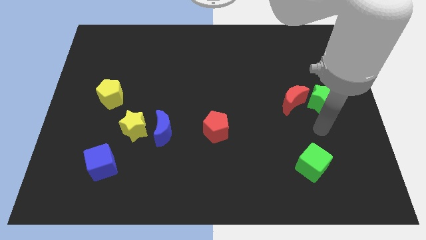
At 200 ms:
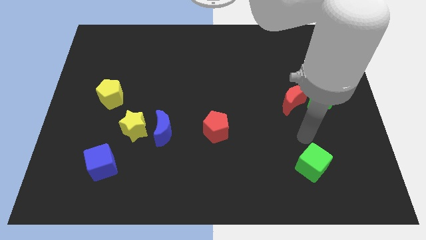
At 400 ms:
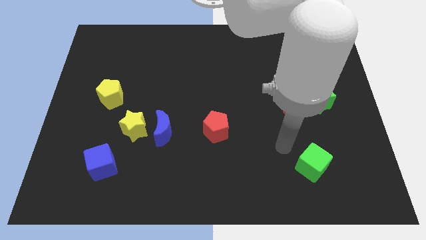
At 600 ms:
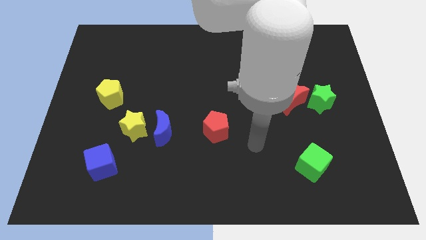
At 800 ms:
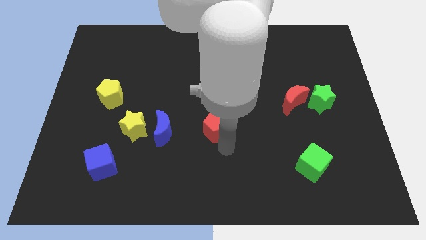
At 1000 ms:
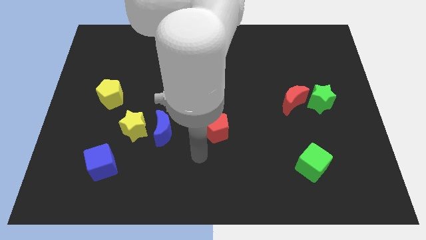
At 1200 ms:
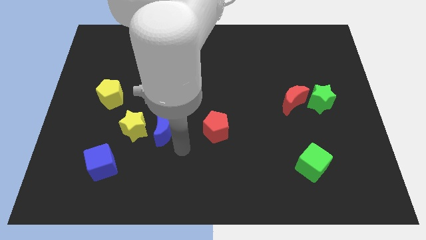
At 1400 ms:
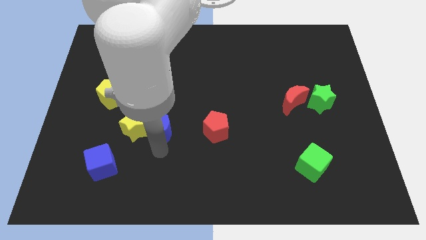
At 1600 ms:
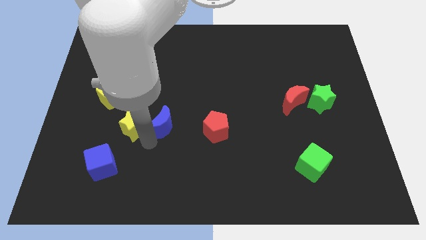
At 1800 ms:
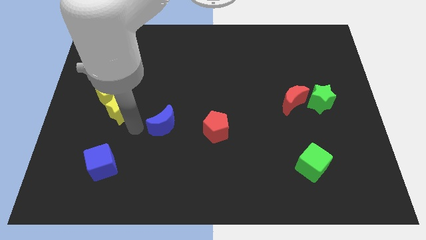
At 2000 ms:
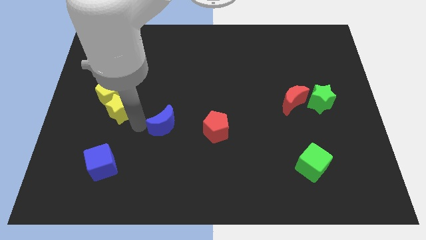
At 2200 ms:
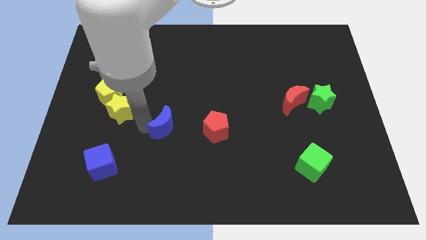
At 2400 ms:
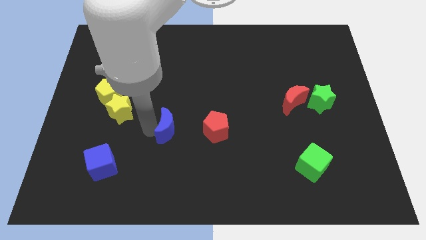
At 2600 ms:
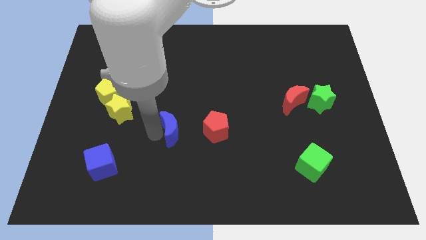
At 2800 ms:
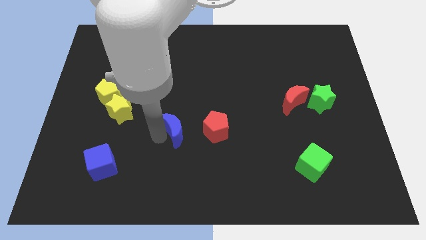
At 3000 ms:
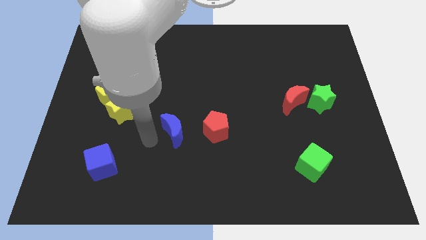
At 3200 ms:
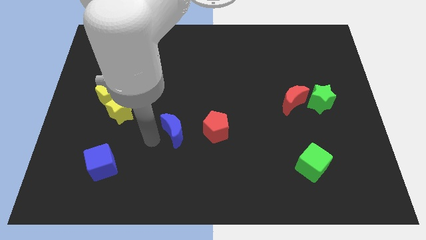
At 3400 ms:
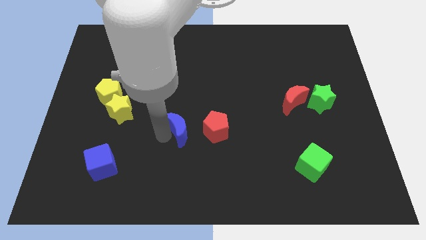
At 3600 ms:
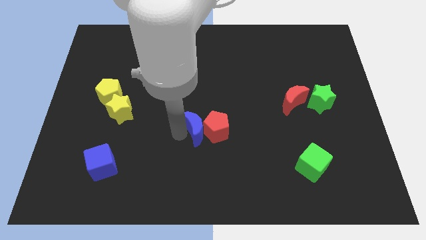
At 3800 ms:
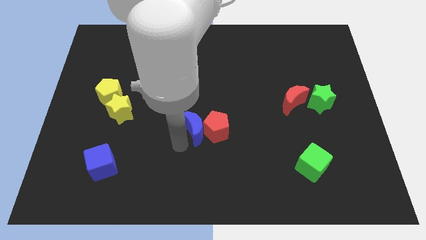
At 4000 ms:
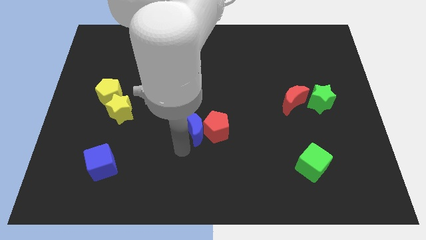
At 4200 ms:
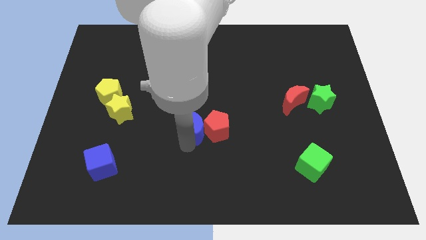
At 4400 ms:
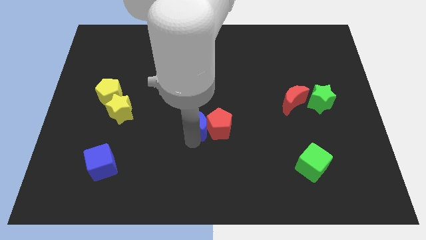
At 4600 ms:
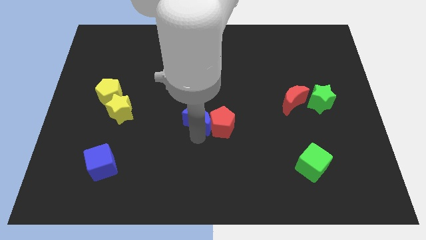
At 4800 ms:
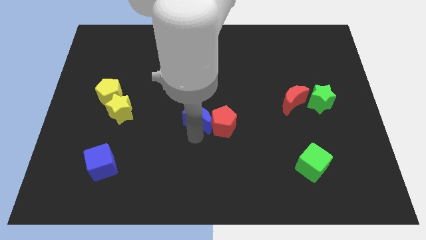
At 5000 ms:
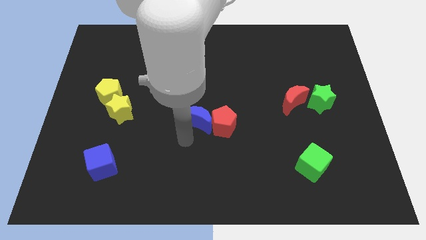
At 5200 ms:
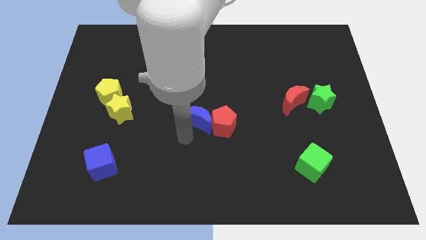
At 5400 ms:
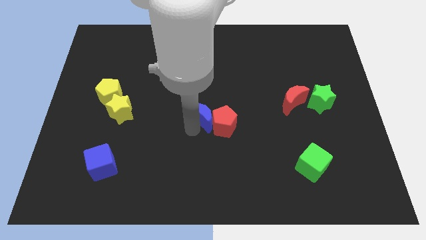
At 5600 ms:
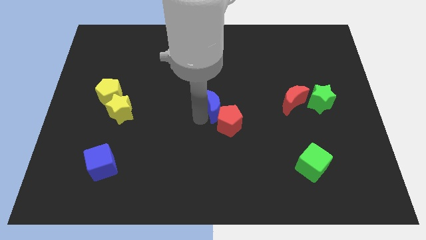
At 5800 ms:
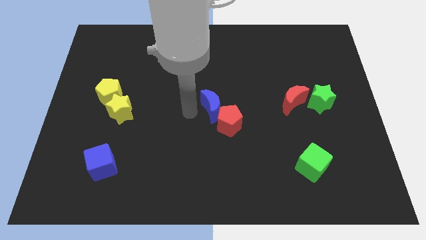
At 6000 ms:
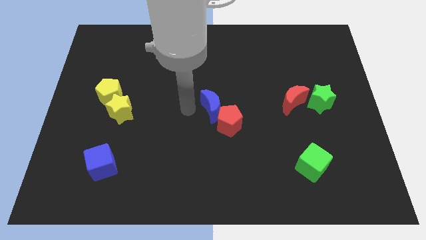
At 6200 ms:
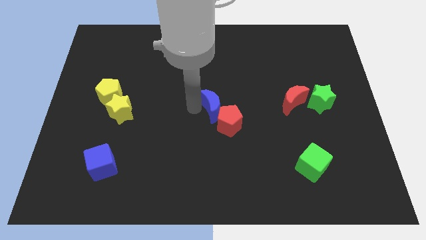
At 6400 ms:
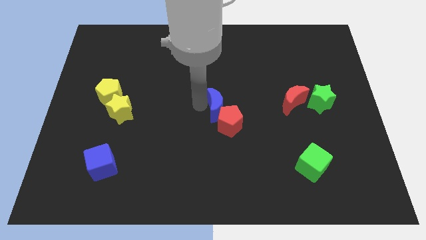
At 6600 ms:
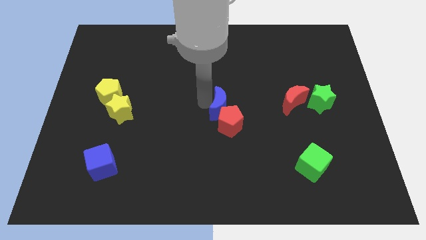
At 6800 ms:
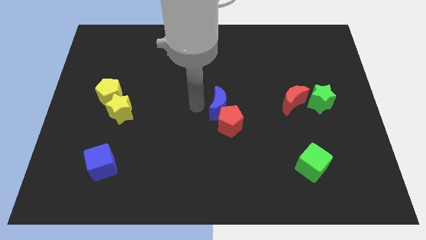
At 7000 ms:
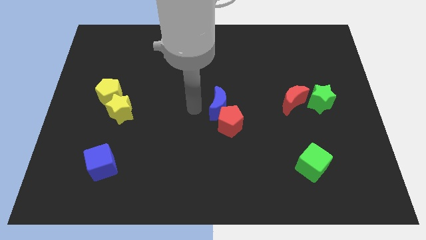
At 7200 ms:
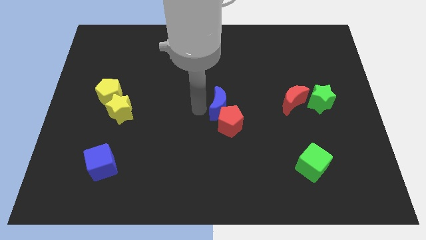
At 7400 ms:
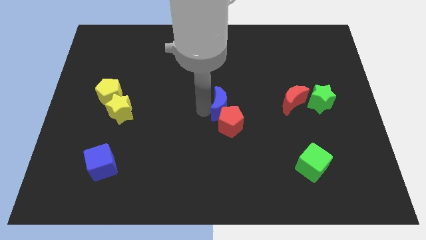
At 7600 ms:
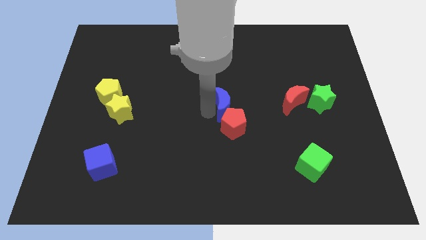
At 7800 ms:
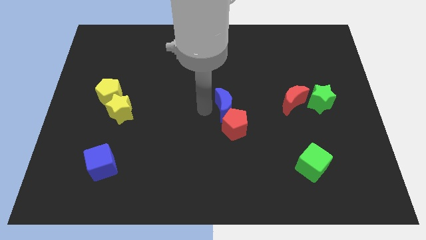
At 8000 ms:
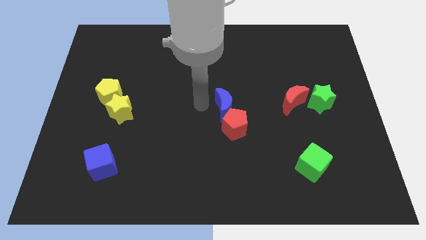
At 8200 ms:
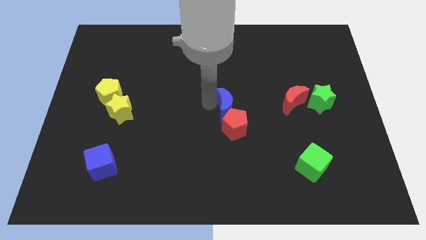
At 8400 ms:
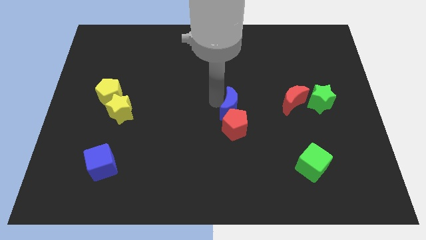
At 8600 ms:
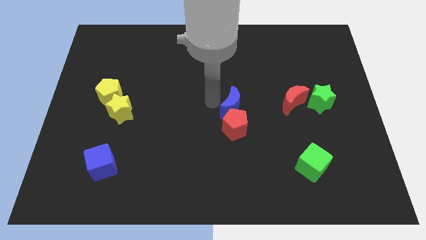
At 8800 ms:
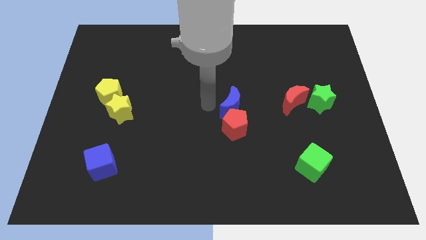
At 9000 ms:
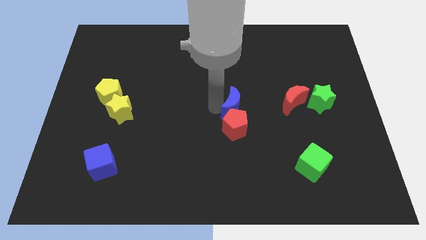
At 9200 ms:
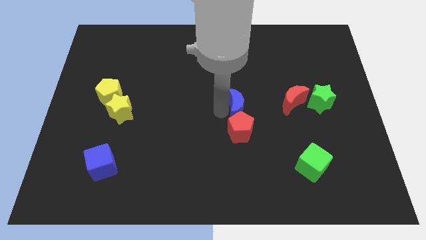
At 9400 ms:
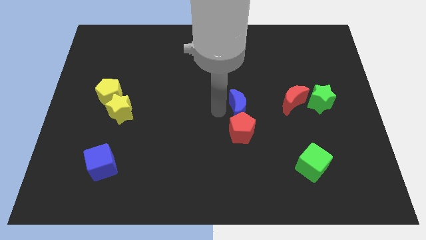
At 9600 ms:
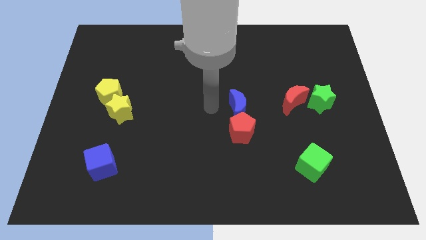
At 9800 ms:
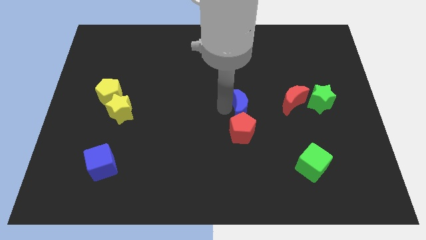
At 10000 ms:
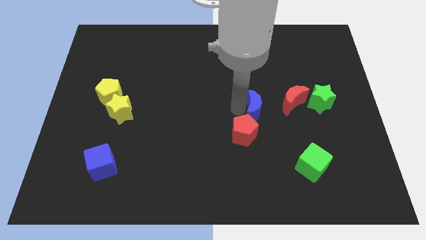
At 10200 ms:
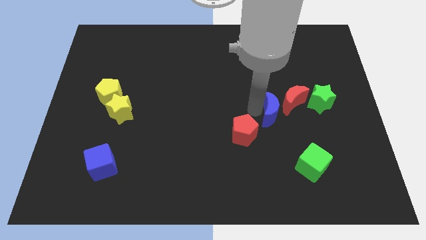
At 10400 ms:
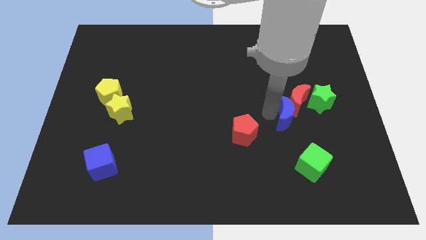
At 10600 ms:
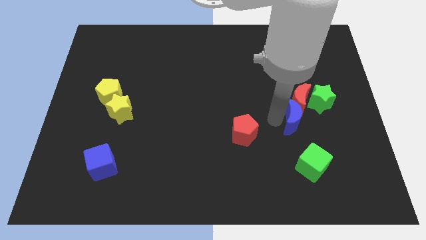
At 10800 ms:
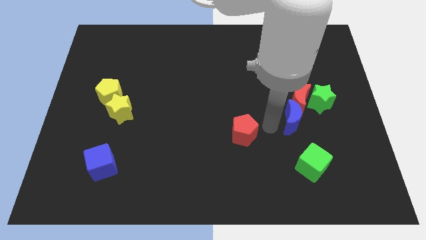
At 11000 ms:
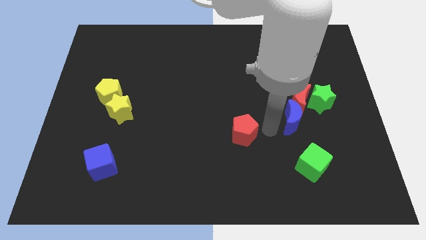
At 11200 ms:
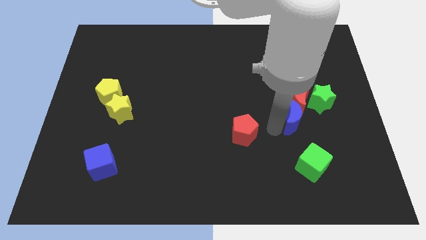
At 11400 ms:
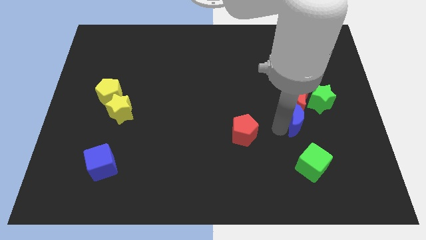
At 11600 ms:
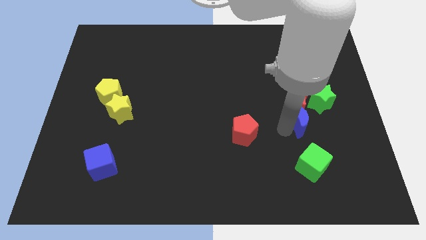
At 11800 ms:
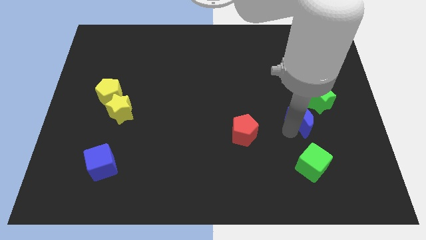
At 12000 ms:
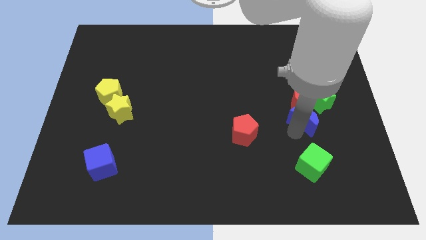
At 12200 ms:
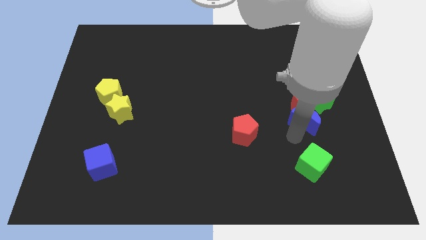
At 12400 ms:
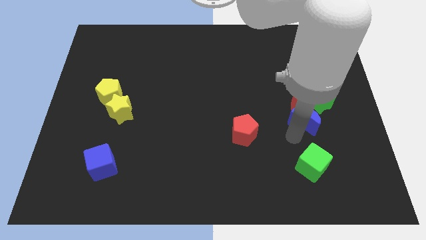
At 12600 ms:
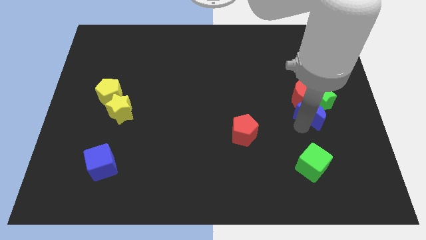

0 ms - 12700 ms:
put the blue moon towards the green star

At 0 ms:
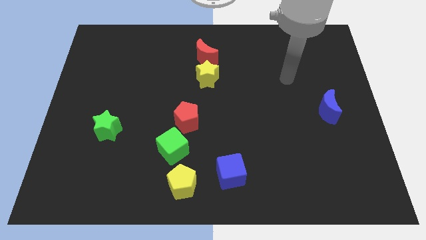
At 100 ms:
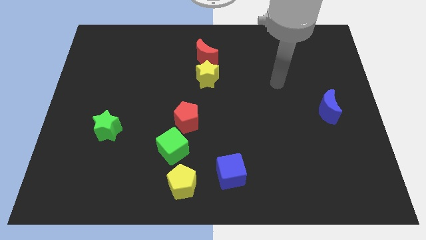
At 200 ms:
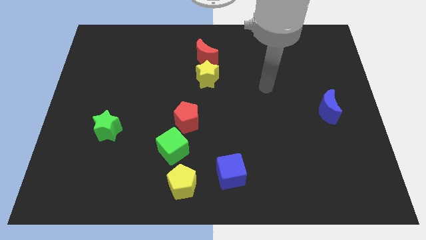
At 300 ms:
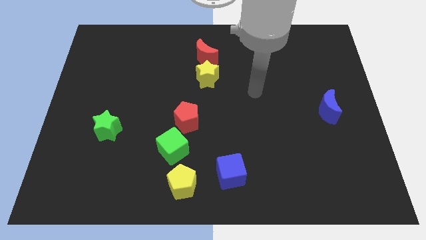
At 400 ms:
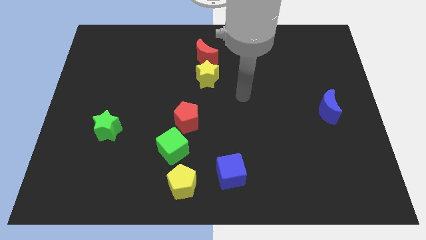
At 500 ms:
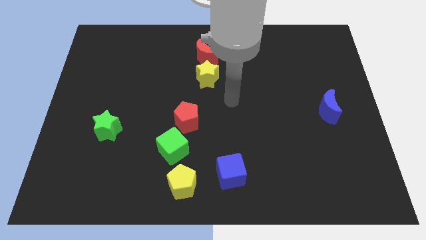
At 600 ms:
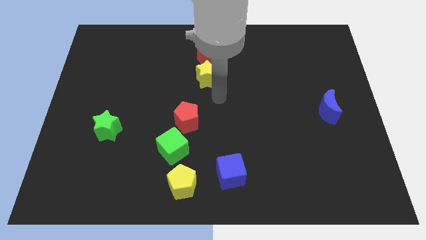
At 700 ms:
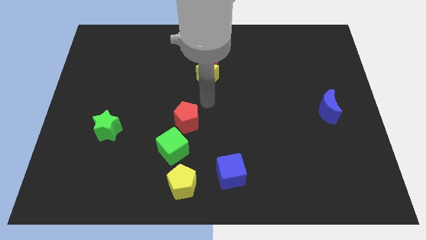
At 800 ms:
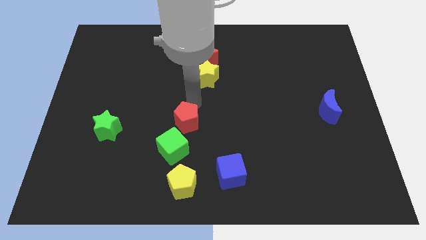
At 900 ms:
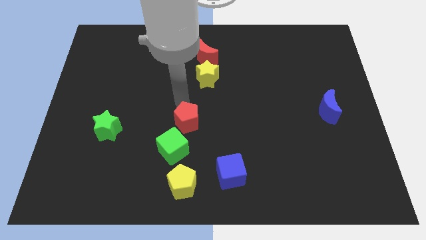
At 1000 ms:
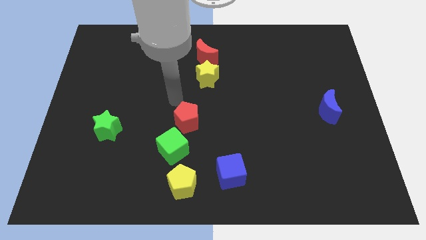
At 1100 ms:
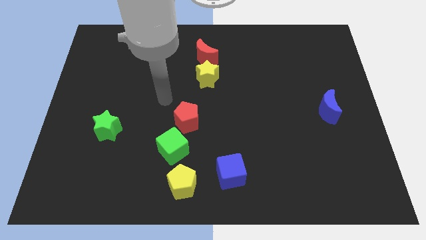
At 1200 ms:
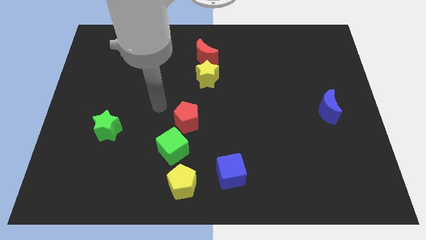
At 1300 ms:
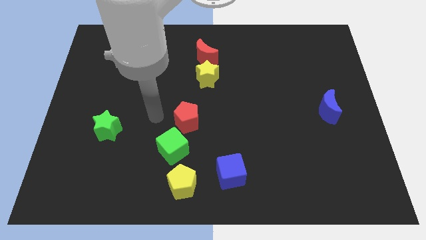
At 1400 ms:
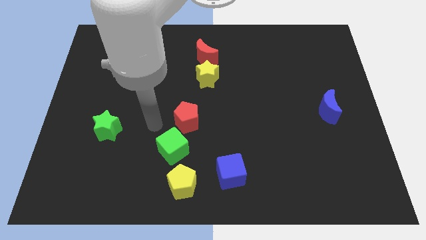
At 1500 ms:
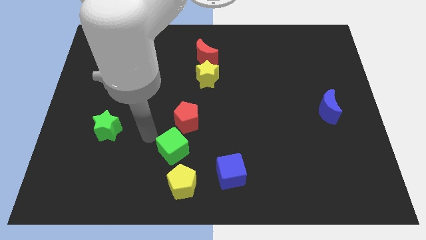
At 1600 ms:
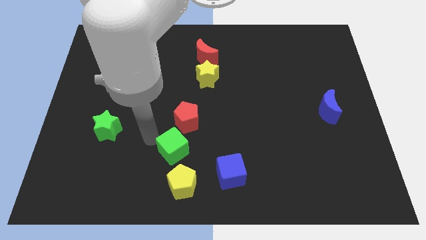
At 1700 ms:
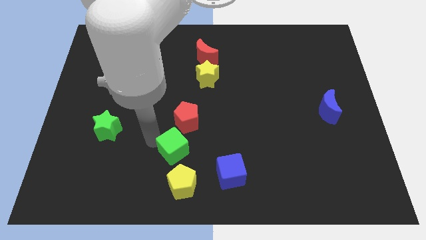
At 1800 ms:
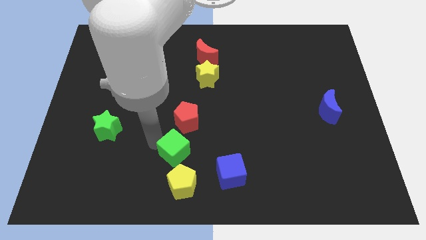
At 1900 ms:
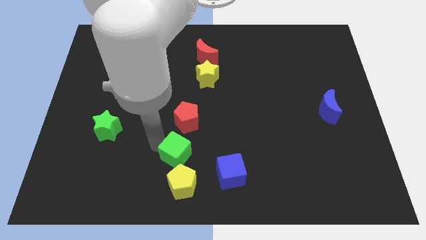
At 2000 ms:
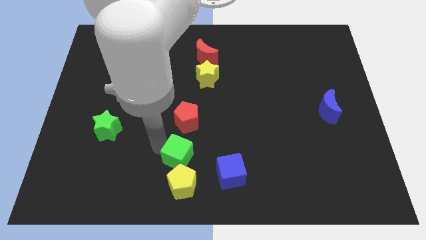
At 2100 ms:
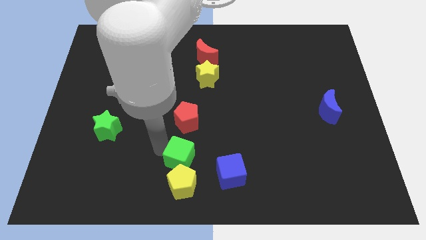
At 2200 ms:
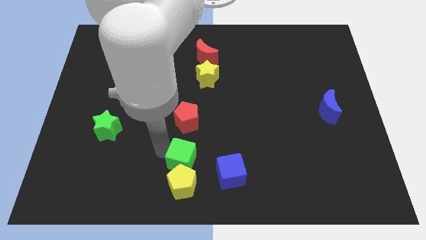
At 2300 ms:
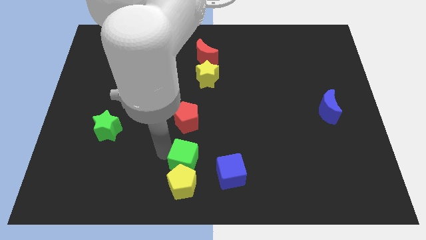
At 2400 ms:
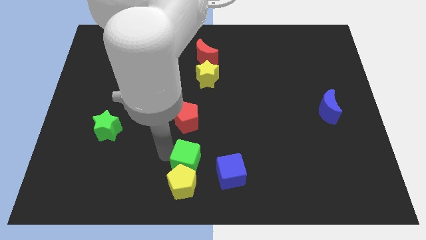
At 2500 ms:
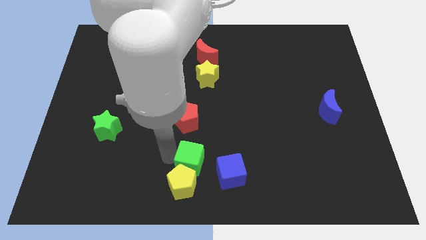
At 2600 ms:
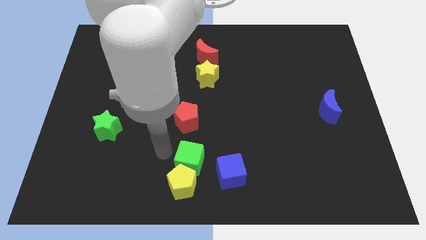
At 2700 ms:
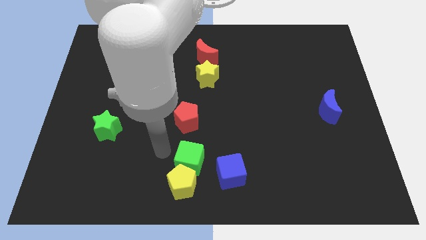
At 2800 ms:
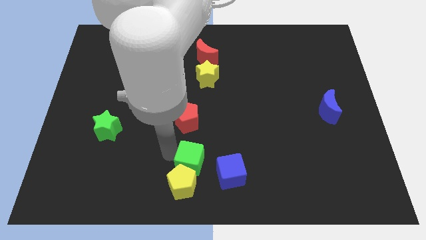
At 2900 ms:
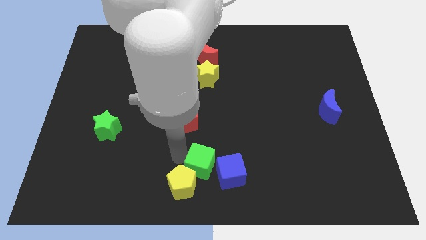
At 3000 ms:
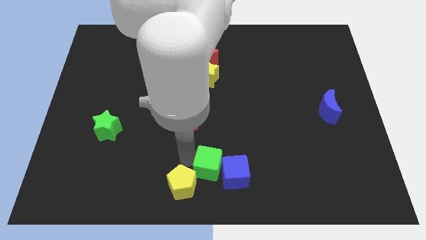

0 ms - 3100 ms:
push the green cube towards the blue cube
